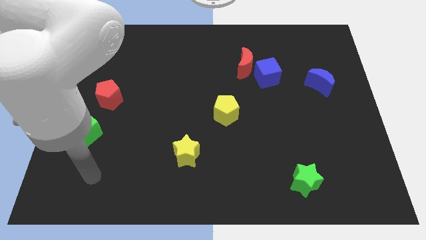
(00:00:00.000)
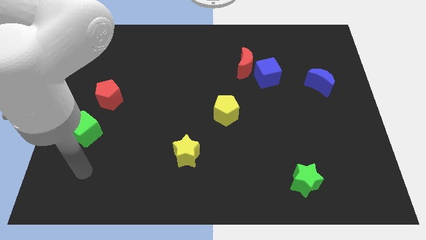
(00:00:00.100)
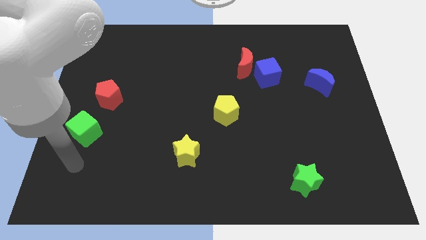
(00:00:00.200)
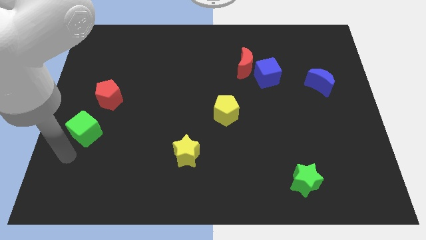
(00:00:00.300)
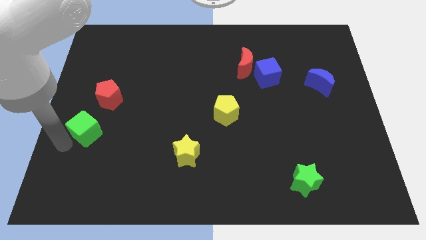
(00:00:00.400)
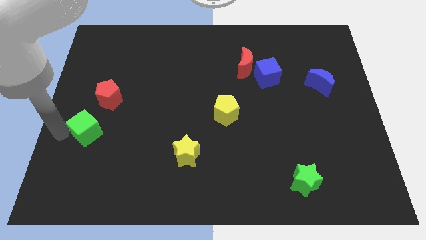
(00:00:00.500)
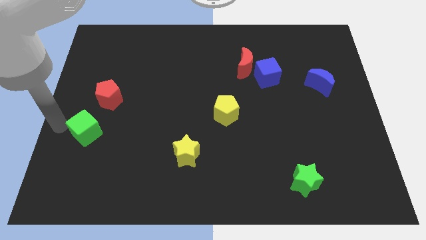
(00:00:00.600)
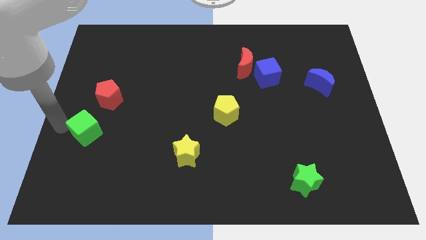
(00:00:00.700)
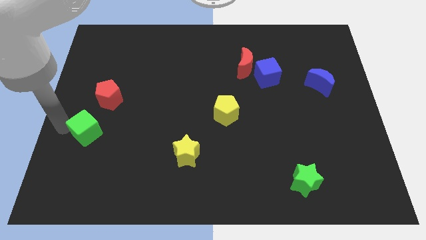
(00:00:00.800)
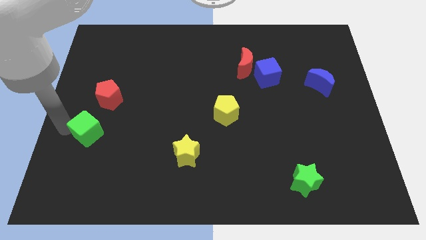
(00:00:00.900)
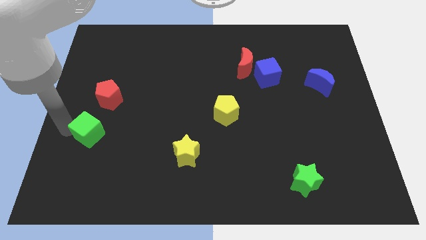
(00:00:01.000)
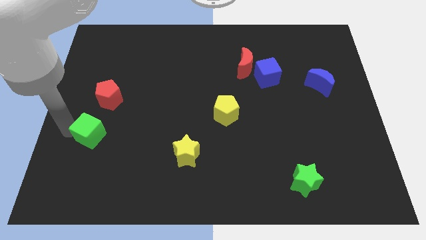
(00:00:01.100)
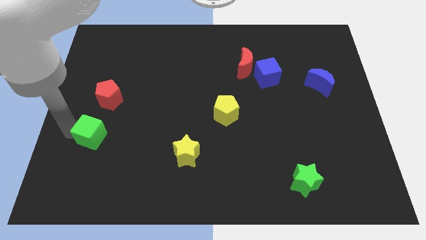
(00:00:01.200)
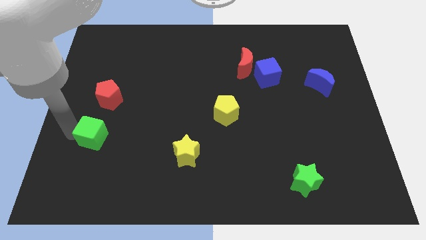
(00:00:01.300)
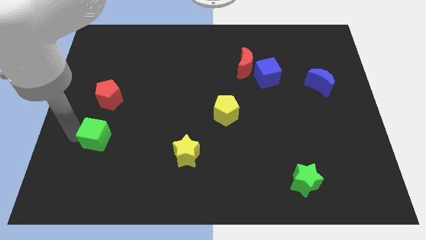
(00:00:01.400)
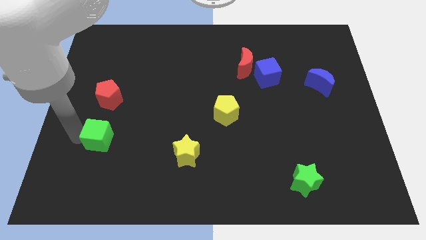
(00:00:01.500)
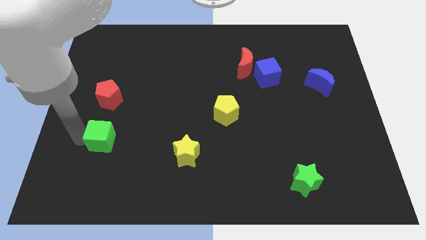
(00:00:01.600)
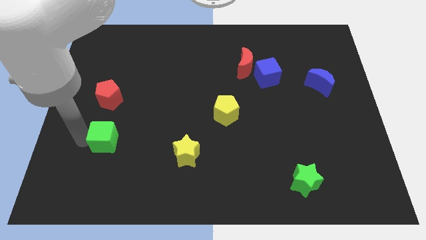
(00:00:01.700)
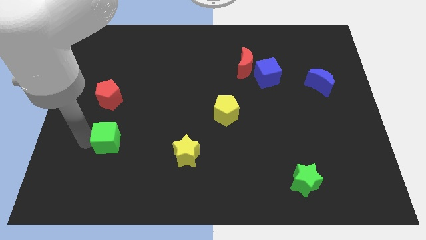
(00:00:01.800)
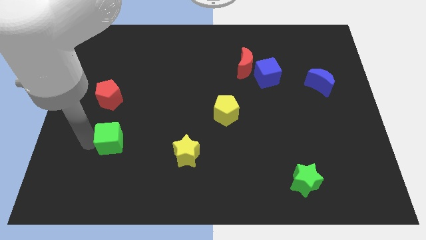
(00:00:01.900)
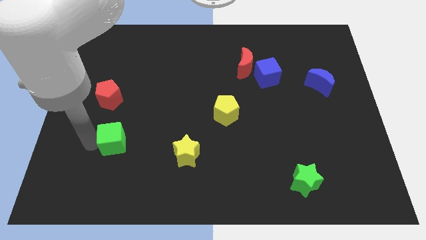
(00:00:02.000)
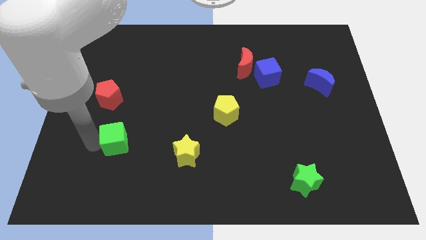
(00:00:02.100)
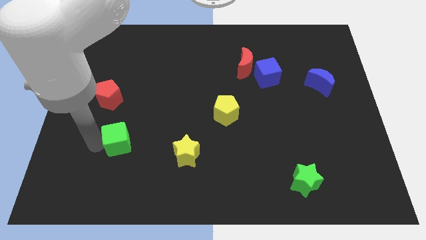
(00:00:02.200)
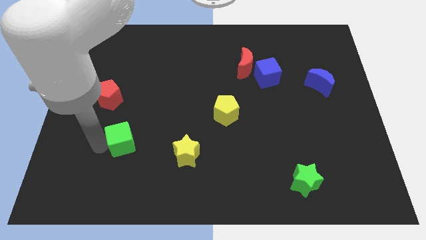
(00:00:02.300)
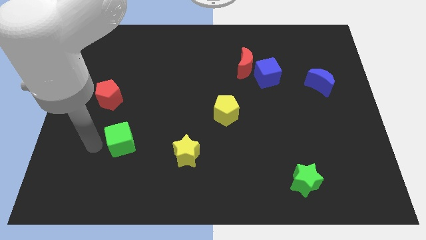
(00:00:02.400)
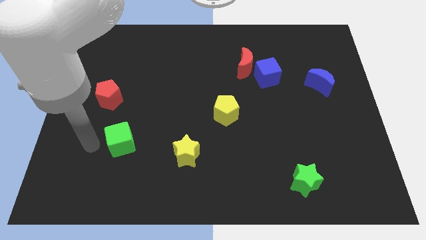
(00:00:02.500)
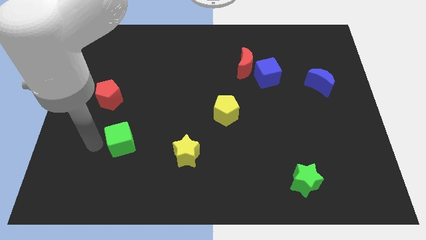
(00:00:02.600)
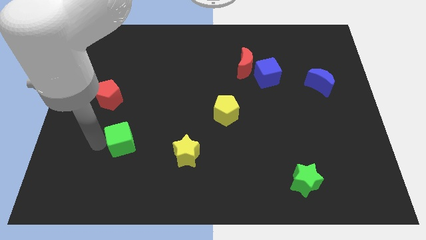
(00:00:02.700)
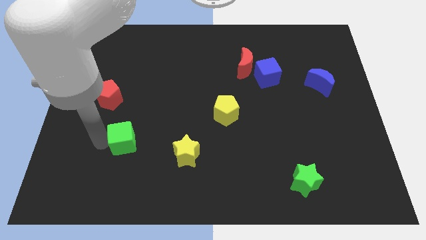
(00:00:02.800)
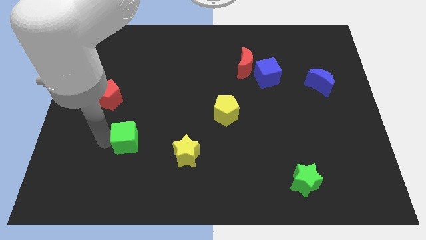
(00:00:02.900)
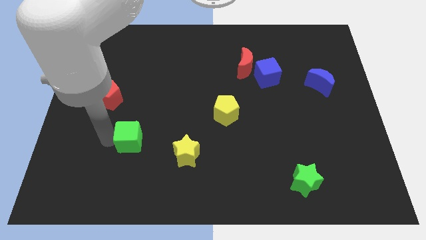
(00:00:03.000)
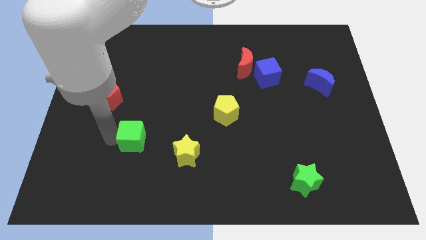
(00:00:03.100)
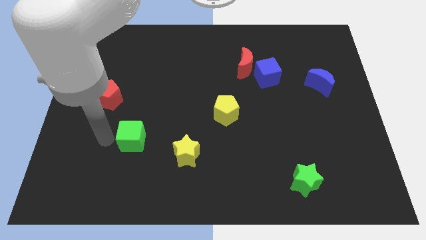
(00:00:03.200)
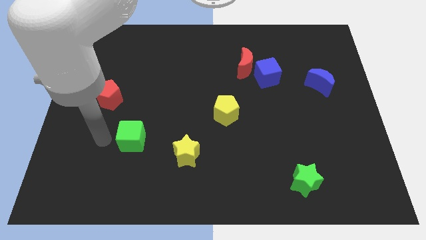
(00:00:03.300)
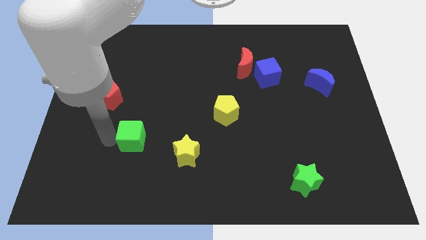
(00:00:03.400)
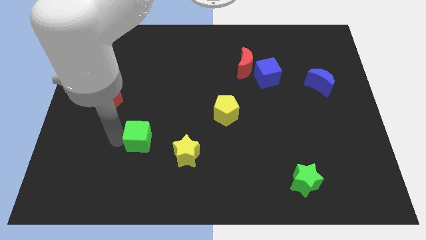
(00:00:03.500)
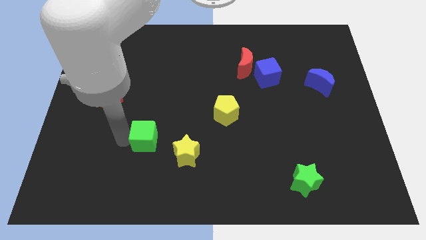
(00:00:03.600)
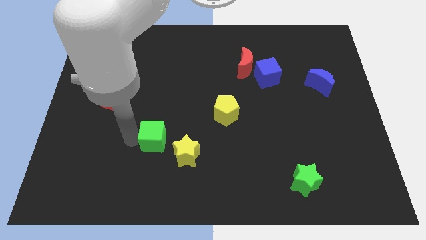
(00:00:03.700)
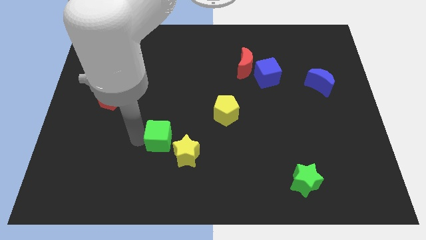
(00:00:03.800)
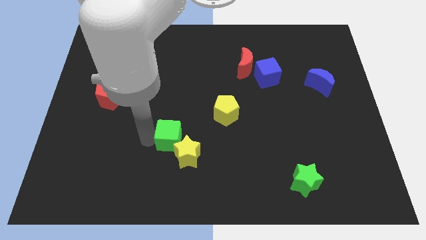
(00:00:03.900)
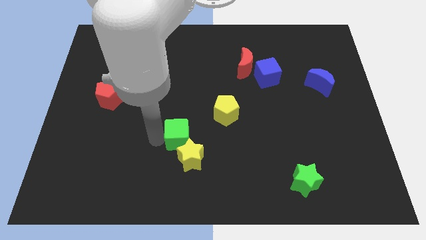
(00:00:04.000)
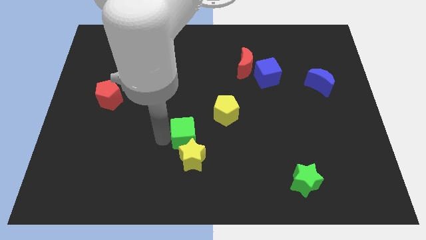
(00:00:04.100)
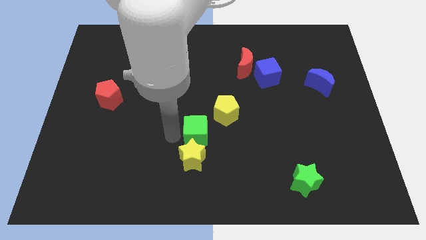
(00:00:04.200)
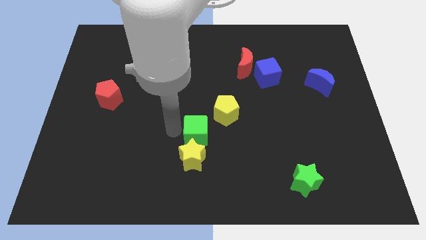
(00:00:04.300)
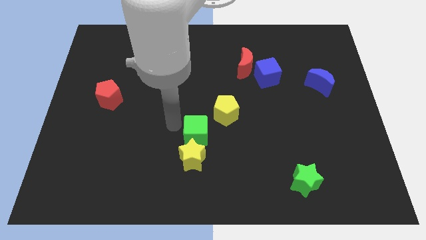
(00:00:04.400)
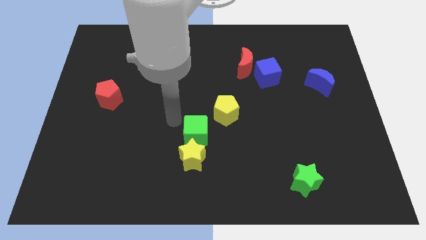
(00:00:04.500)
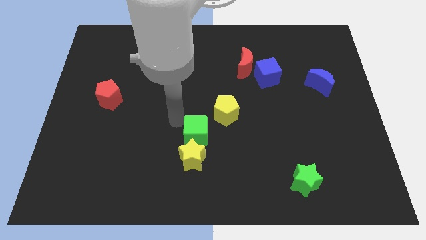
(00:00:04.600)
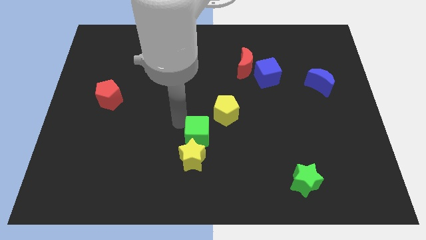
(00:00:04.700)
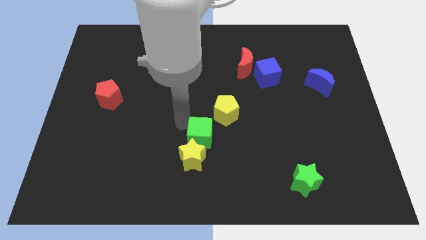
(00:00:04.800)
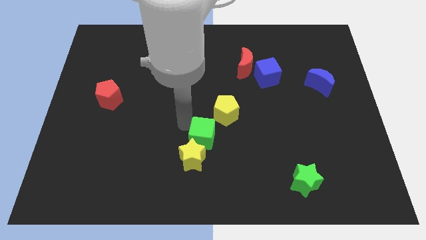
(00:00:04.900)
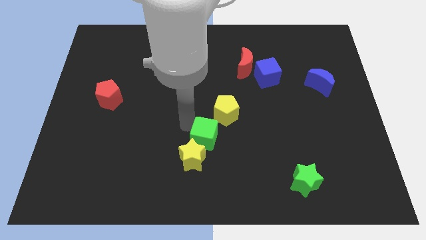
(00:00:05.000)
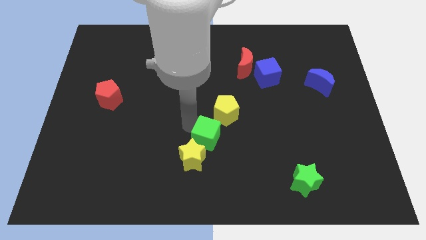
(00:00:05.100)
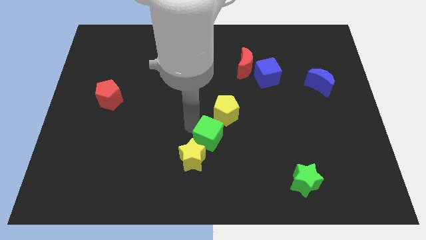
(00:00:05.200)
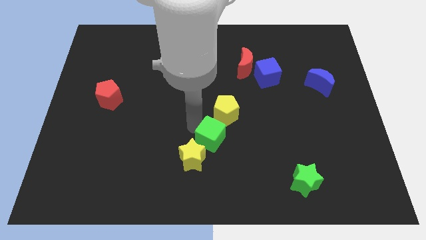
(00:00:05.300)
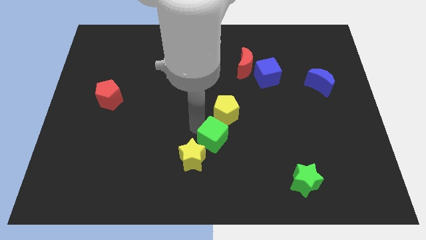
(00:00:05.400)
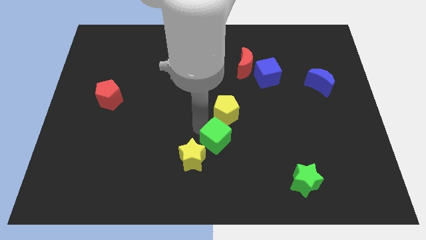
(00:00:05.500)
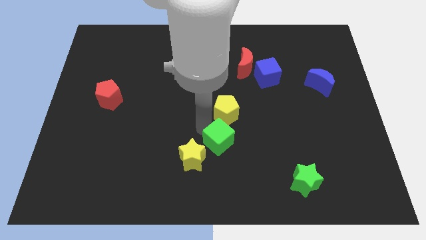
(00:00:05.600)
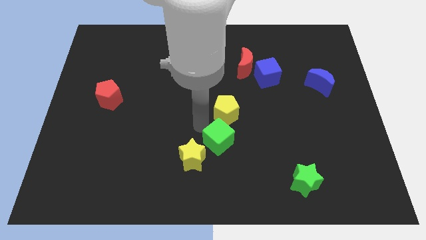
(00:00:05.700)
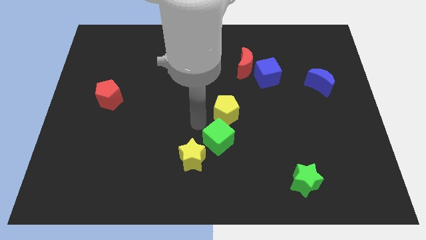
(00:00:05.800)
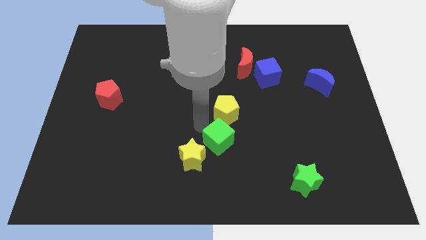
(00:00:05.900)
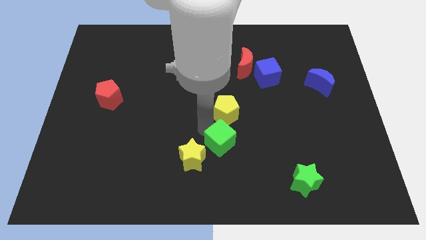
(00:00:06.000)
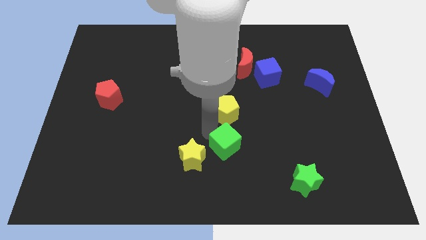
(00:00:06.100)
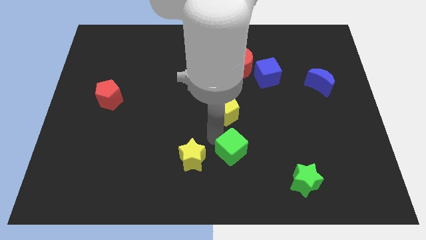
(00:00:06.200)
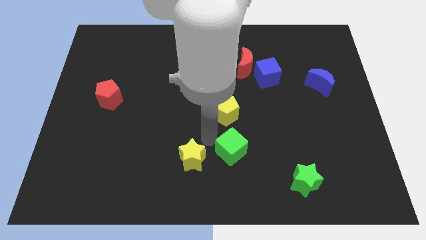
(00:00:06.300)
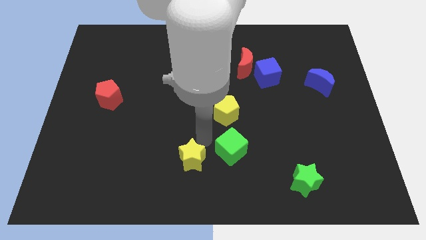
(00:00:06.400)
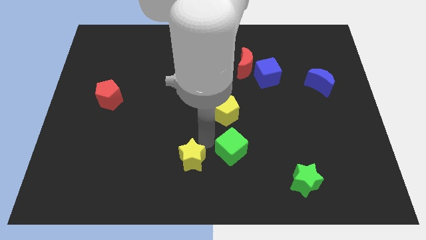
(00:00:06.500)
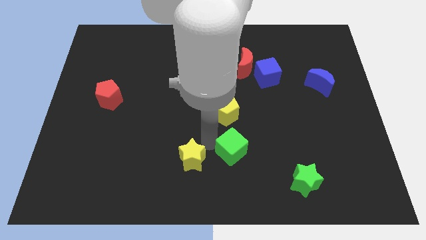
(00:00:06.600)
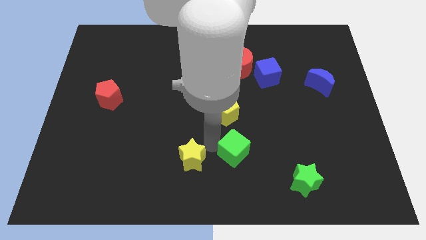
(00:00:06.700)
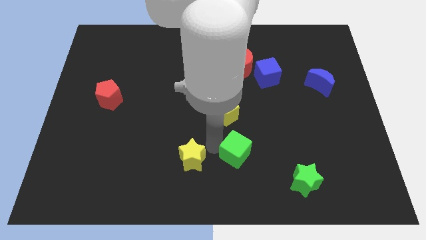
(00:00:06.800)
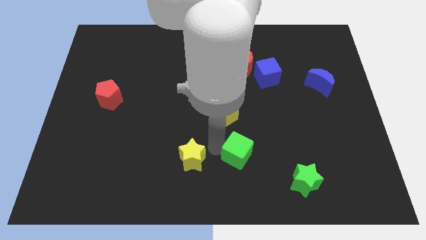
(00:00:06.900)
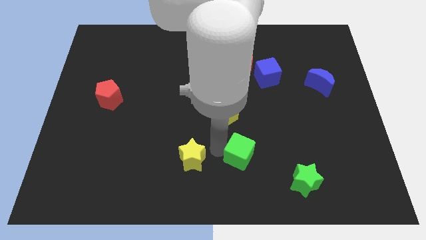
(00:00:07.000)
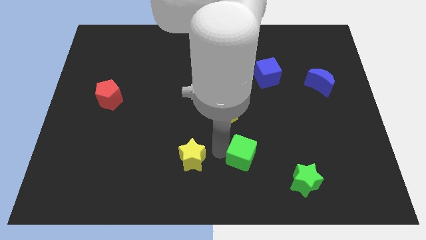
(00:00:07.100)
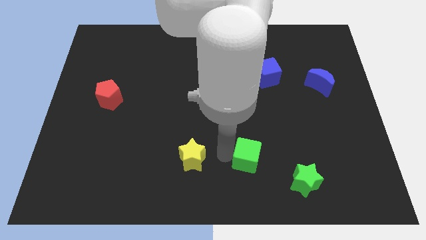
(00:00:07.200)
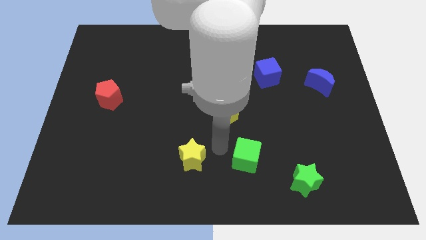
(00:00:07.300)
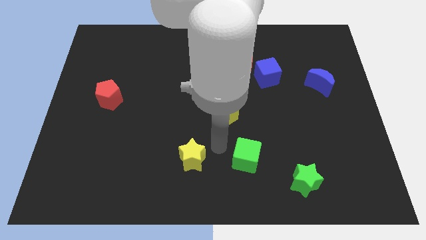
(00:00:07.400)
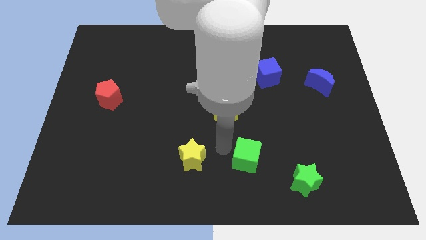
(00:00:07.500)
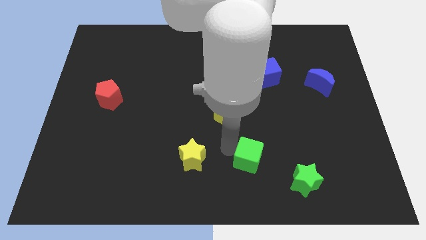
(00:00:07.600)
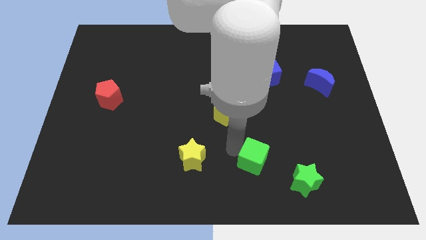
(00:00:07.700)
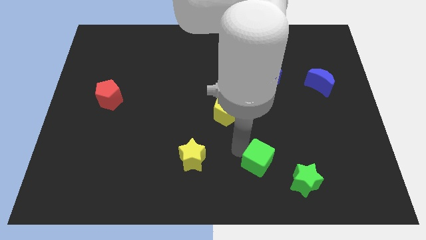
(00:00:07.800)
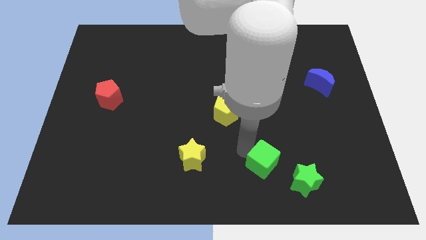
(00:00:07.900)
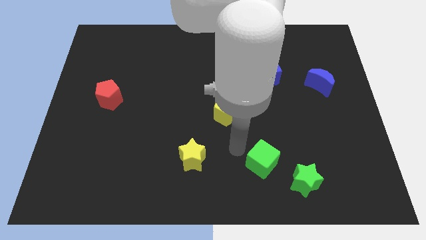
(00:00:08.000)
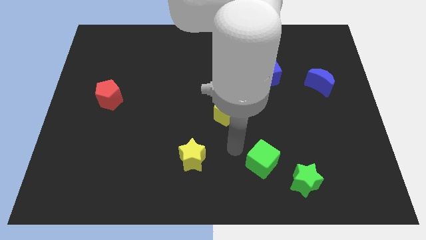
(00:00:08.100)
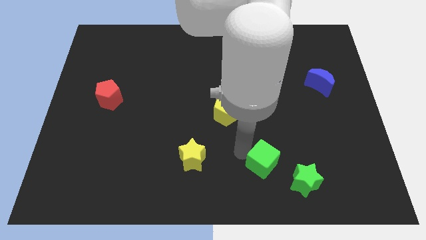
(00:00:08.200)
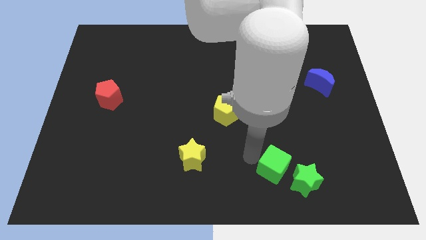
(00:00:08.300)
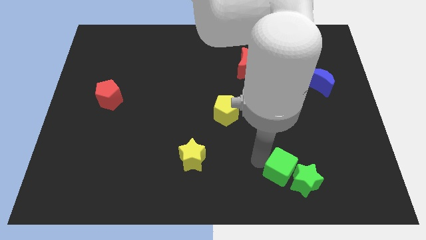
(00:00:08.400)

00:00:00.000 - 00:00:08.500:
move the green cube close to the green star
